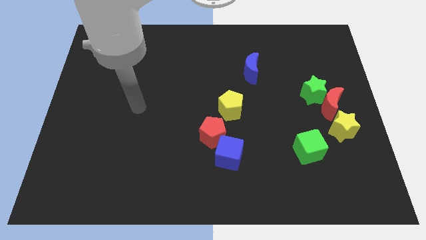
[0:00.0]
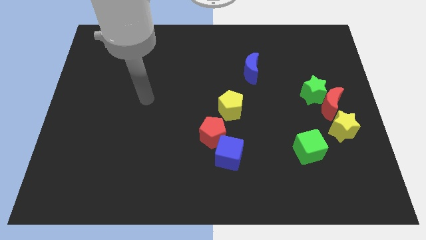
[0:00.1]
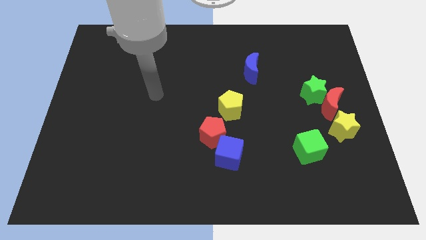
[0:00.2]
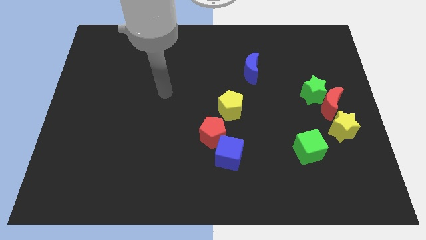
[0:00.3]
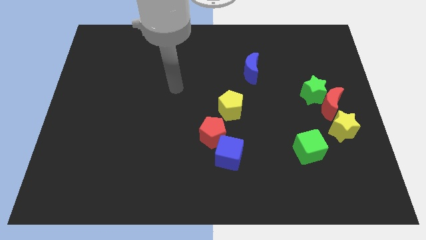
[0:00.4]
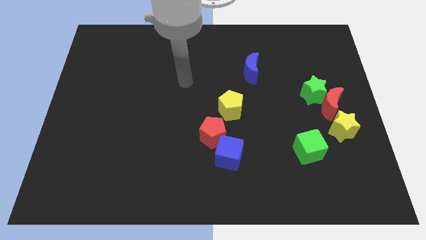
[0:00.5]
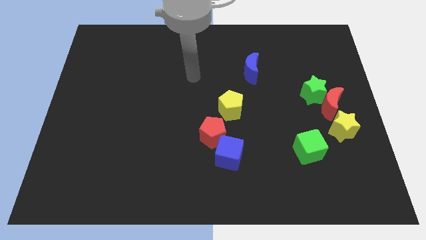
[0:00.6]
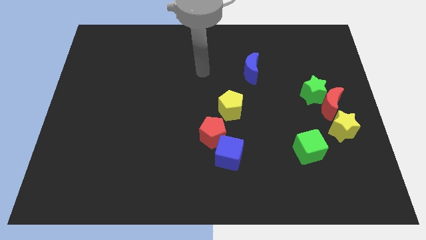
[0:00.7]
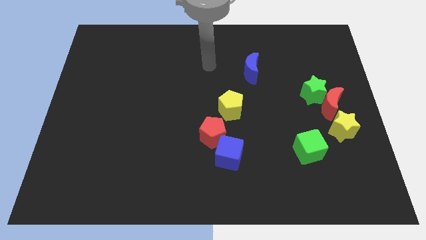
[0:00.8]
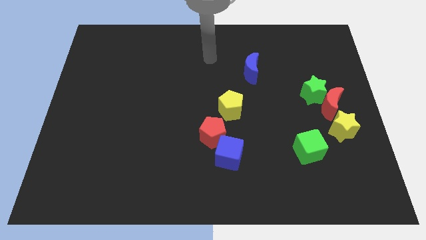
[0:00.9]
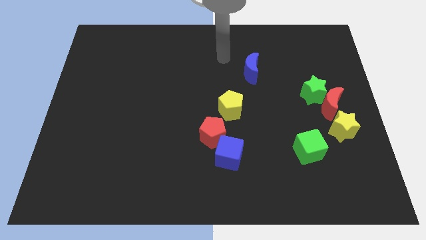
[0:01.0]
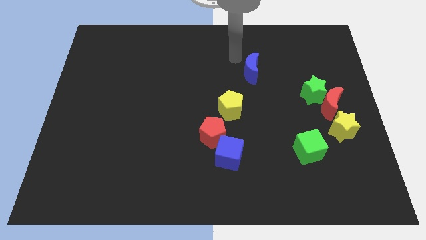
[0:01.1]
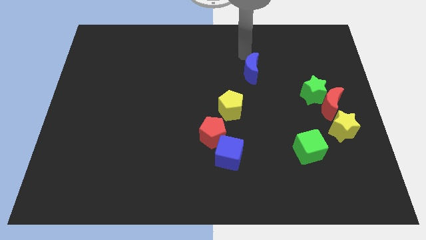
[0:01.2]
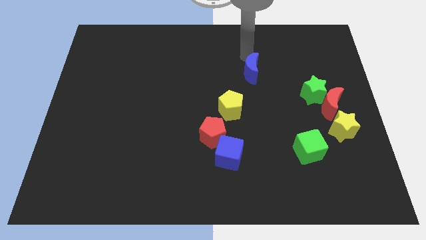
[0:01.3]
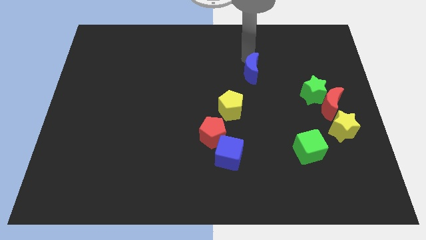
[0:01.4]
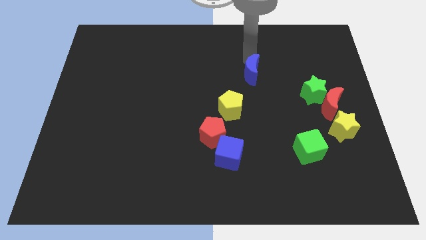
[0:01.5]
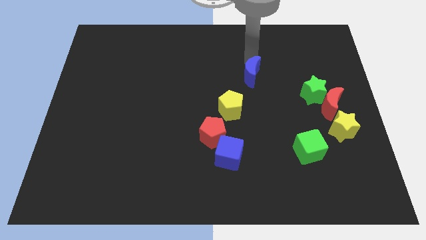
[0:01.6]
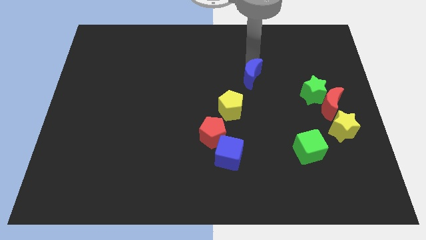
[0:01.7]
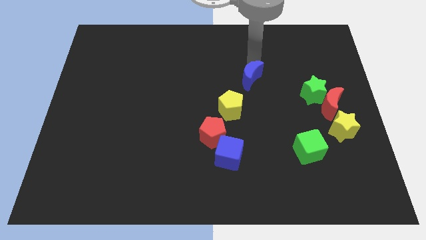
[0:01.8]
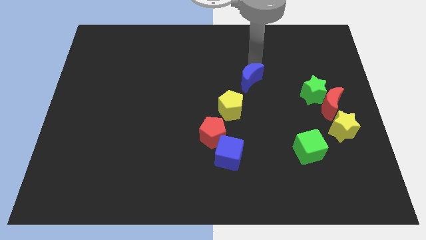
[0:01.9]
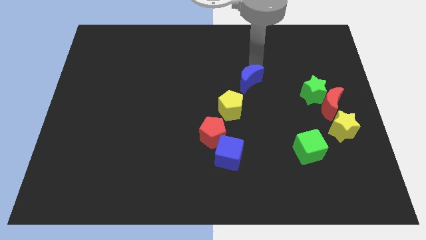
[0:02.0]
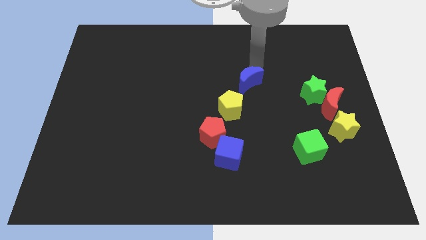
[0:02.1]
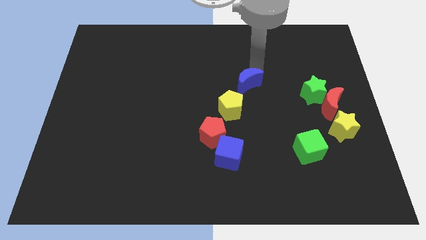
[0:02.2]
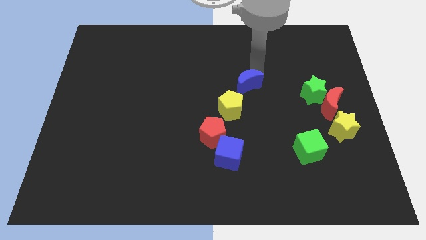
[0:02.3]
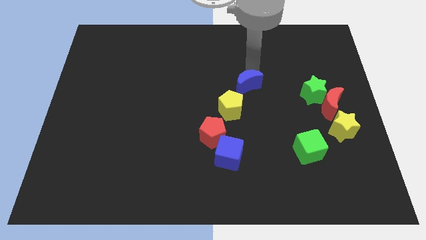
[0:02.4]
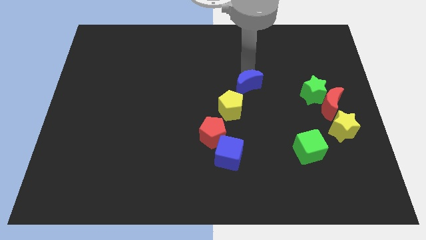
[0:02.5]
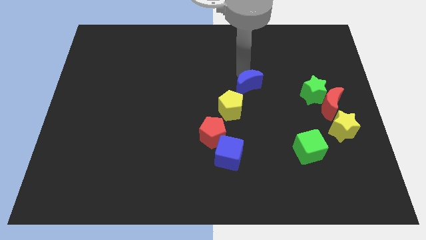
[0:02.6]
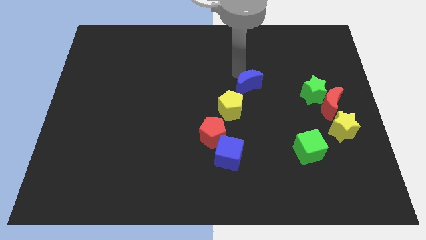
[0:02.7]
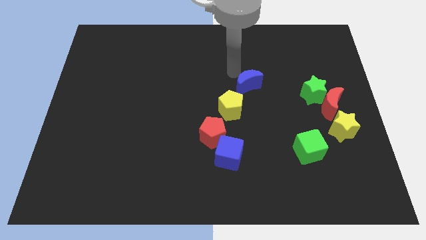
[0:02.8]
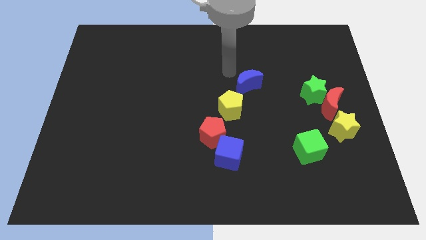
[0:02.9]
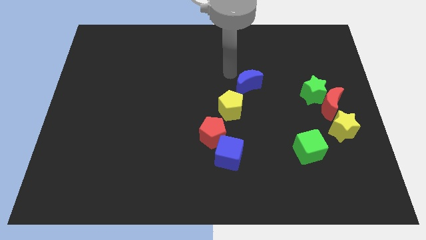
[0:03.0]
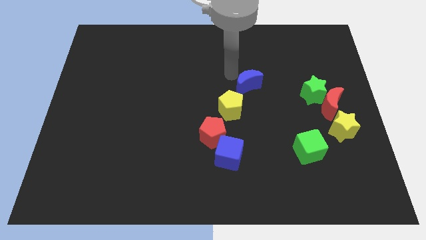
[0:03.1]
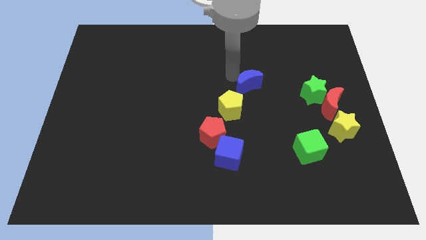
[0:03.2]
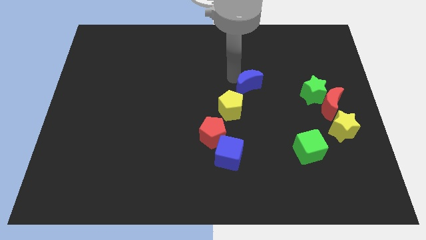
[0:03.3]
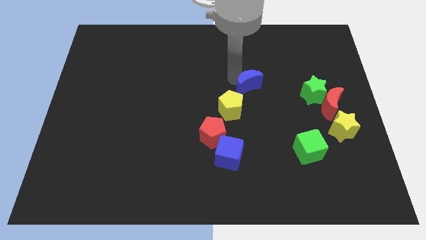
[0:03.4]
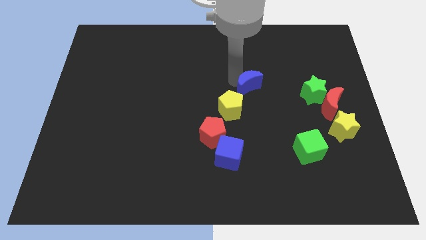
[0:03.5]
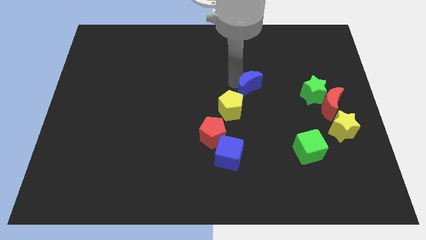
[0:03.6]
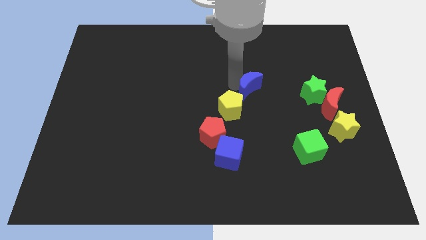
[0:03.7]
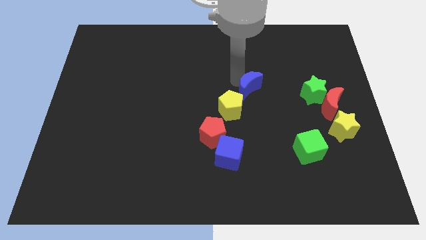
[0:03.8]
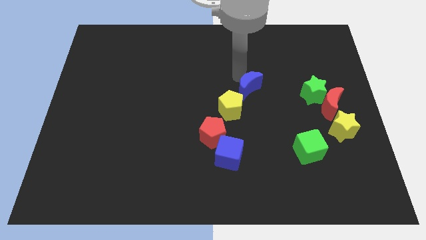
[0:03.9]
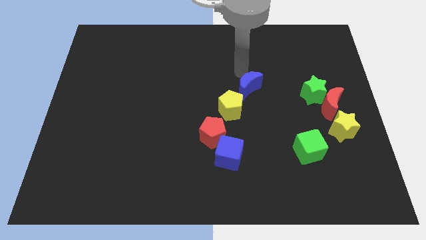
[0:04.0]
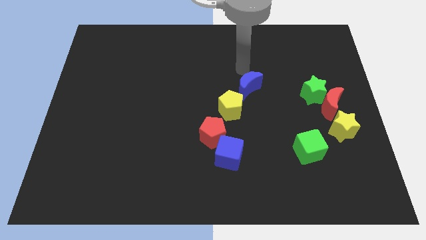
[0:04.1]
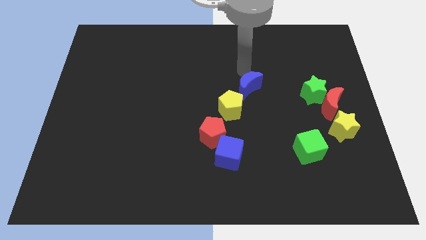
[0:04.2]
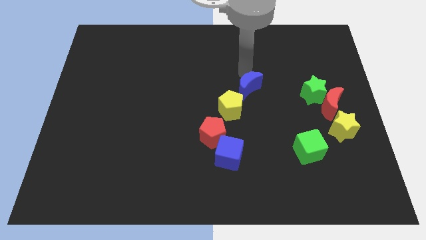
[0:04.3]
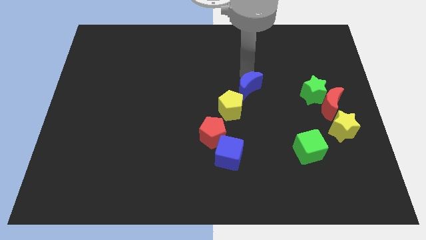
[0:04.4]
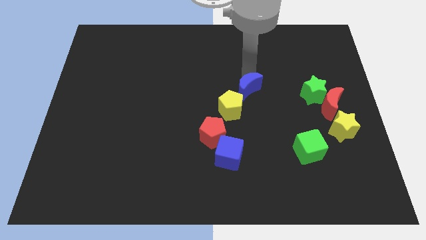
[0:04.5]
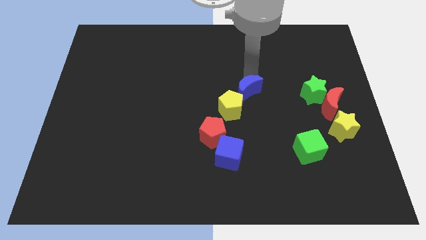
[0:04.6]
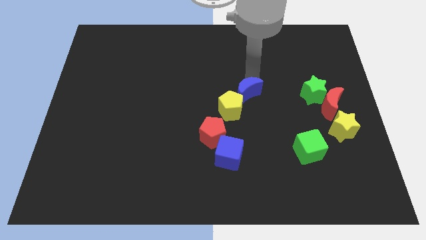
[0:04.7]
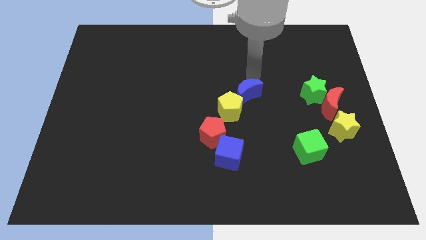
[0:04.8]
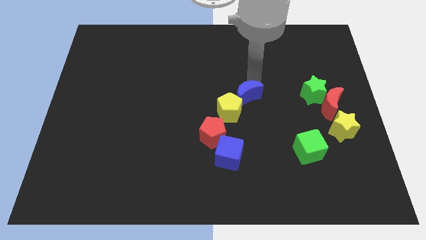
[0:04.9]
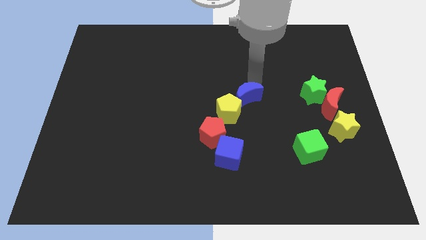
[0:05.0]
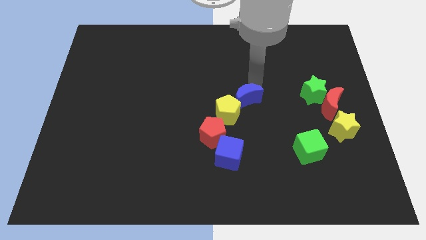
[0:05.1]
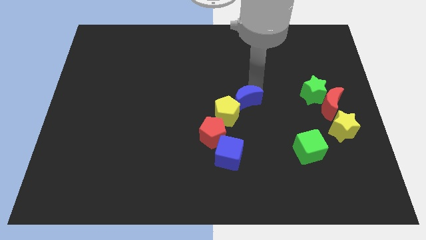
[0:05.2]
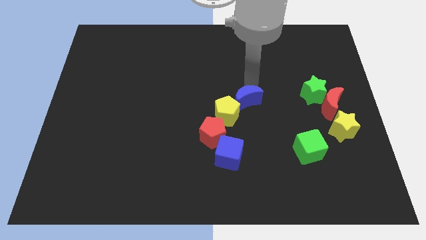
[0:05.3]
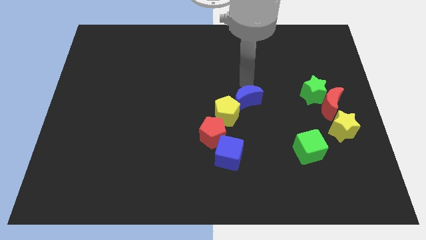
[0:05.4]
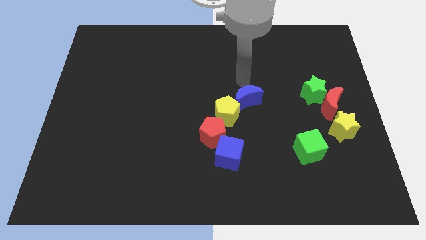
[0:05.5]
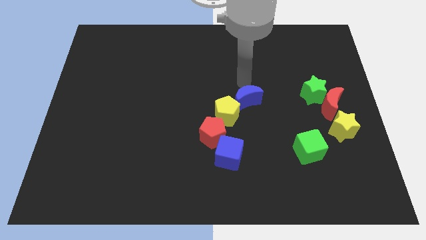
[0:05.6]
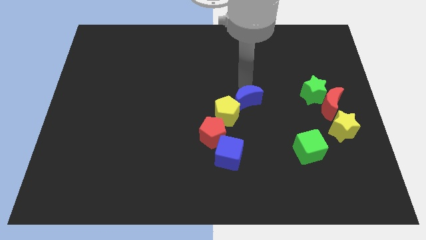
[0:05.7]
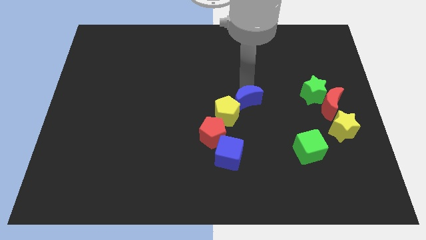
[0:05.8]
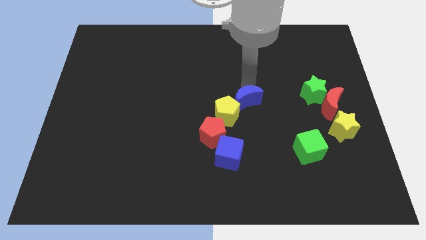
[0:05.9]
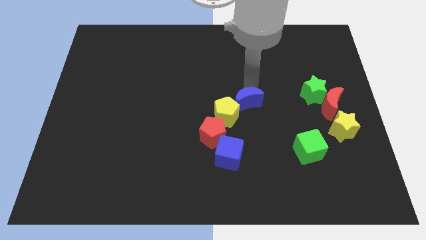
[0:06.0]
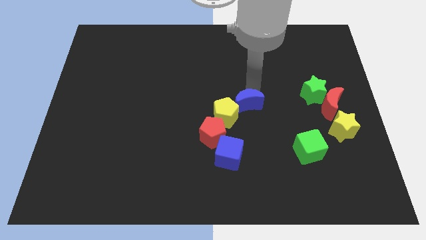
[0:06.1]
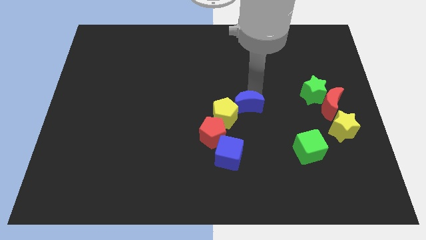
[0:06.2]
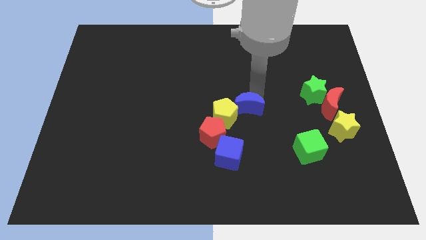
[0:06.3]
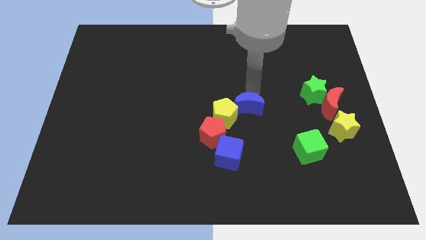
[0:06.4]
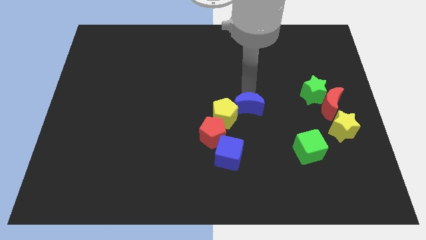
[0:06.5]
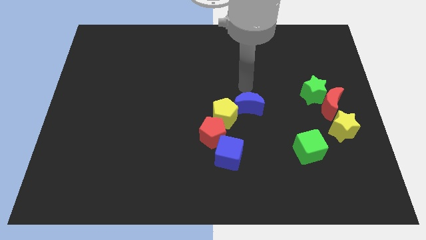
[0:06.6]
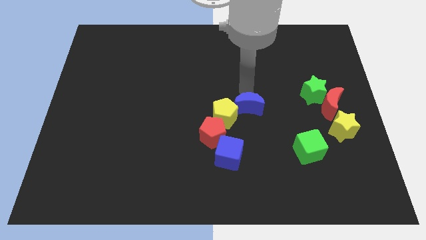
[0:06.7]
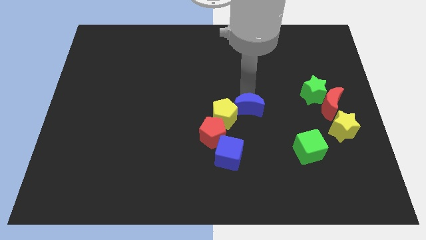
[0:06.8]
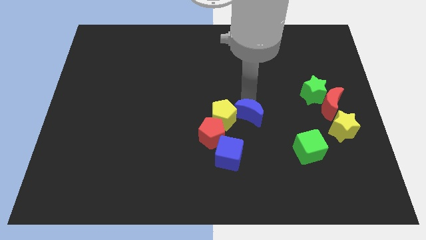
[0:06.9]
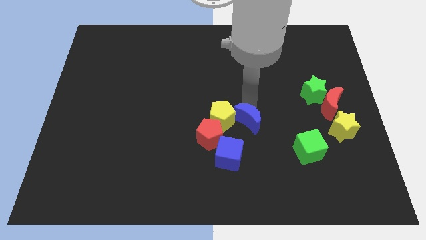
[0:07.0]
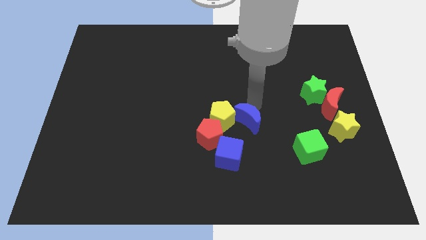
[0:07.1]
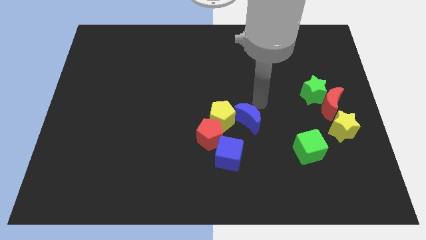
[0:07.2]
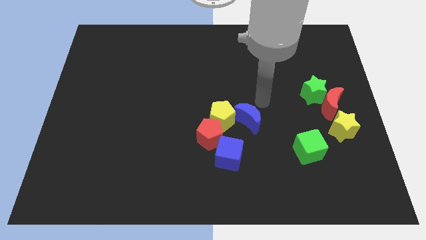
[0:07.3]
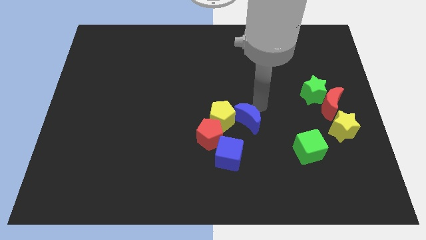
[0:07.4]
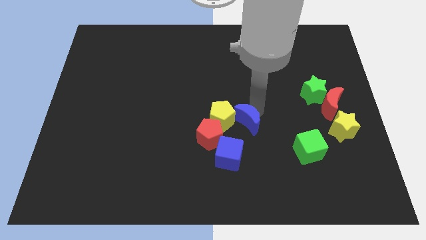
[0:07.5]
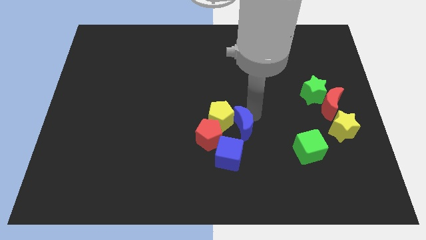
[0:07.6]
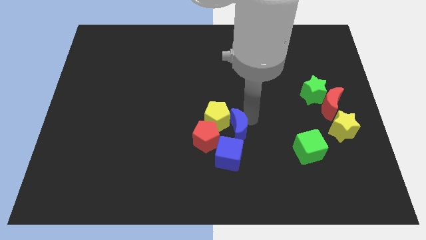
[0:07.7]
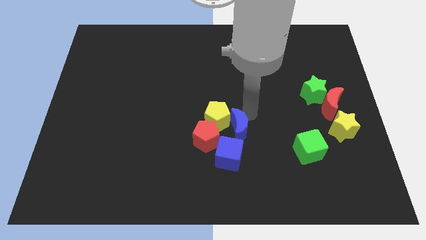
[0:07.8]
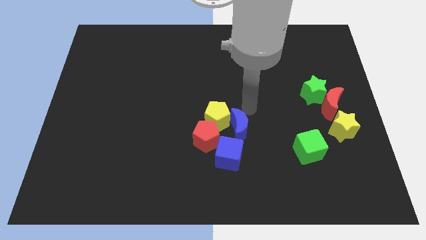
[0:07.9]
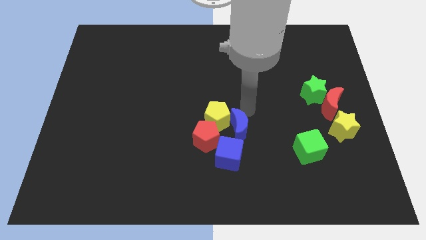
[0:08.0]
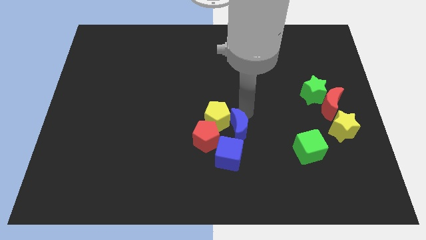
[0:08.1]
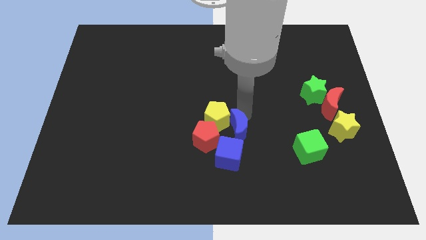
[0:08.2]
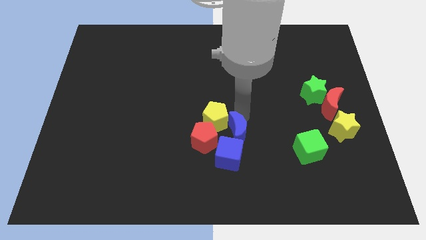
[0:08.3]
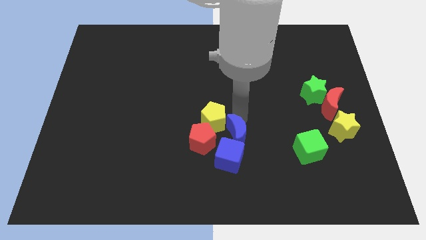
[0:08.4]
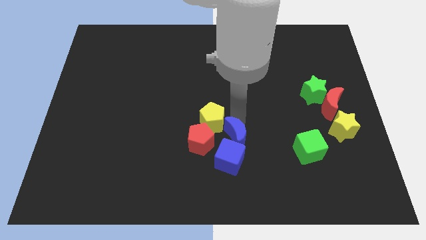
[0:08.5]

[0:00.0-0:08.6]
push the blue moon to the blue cube
